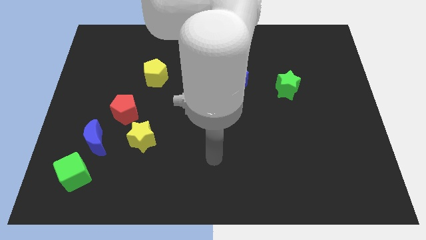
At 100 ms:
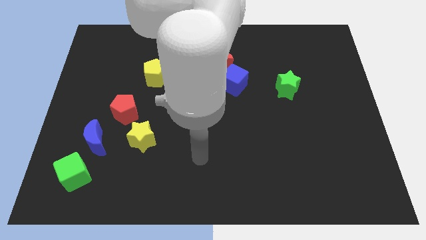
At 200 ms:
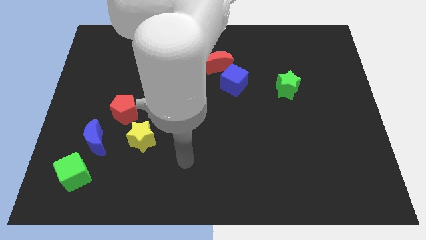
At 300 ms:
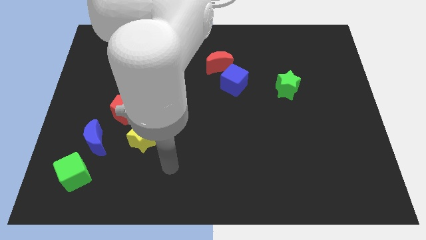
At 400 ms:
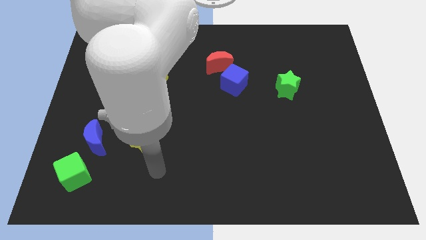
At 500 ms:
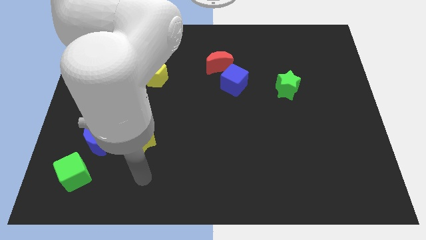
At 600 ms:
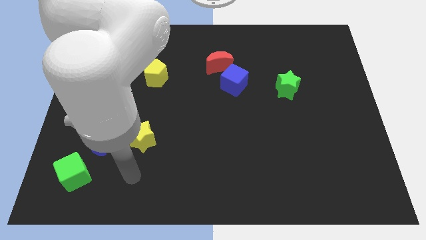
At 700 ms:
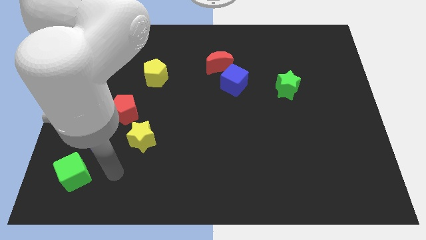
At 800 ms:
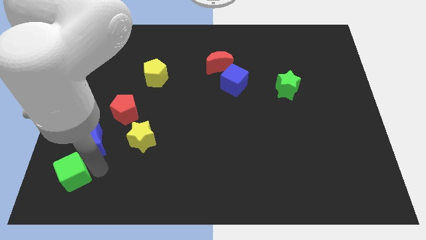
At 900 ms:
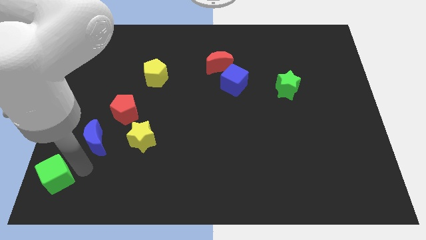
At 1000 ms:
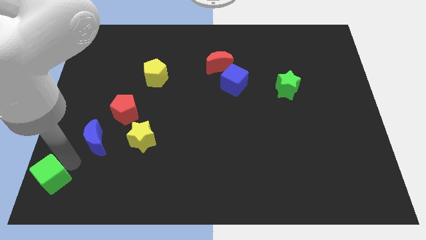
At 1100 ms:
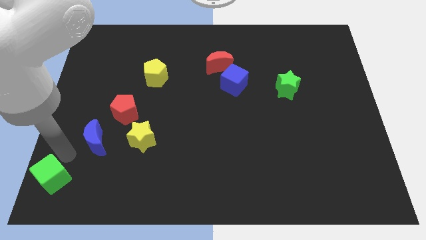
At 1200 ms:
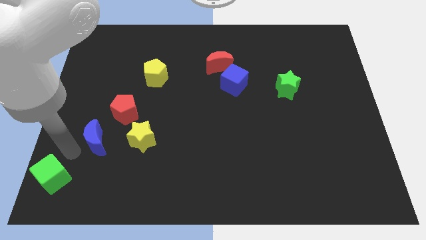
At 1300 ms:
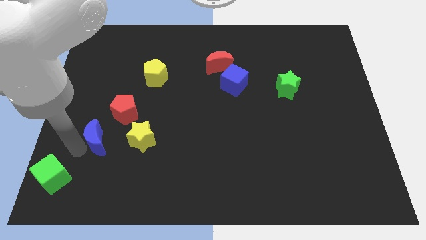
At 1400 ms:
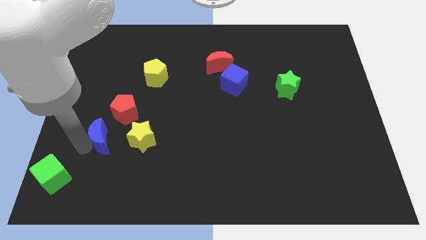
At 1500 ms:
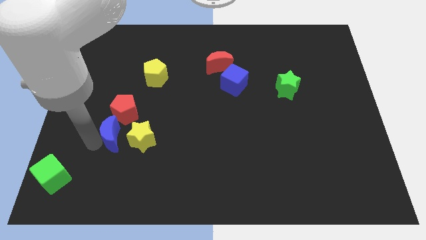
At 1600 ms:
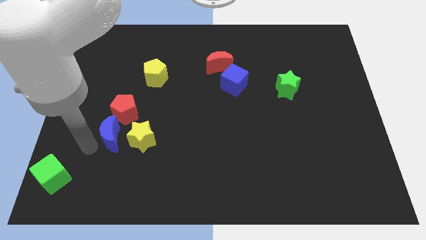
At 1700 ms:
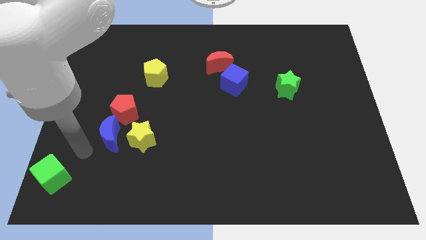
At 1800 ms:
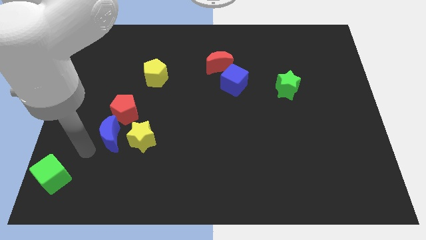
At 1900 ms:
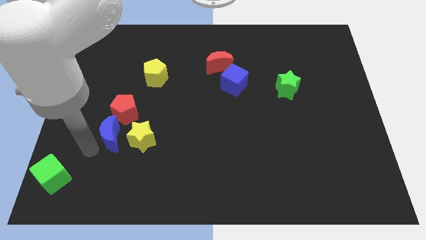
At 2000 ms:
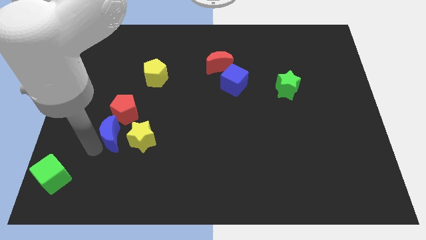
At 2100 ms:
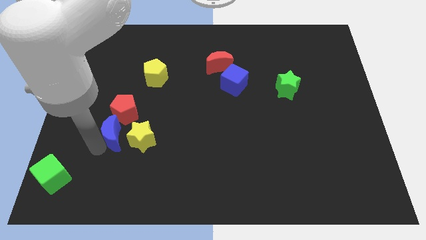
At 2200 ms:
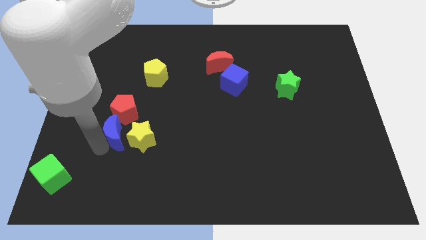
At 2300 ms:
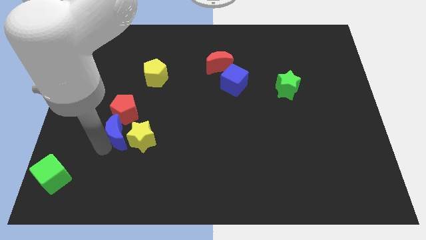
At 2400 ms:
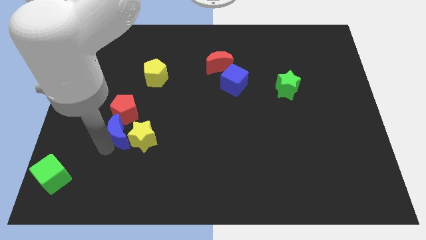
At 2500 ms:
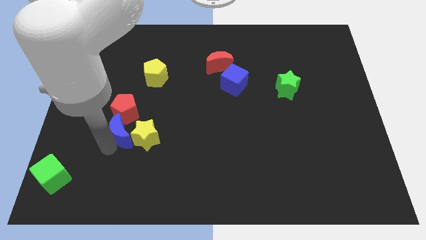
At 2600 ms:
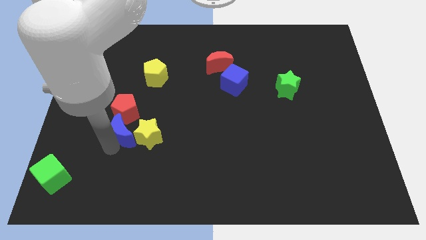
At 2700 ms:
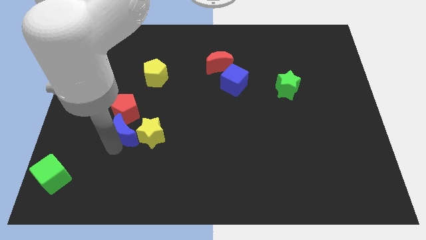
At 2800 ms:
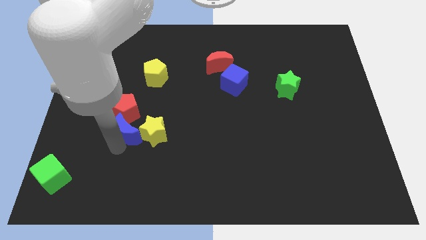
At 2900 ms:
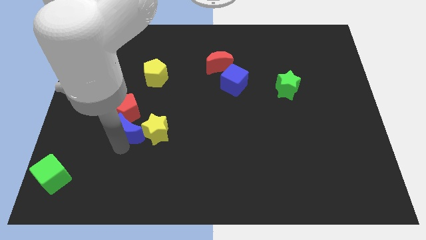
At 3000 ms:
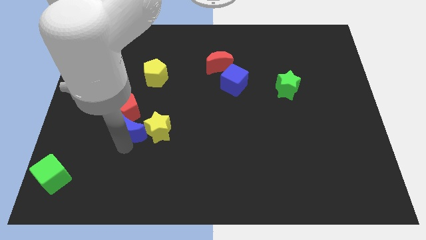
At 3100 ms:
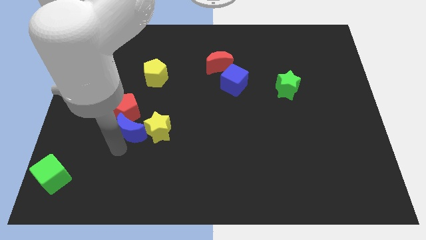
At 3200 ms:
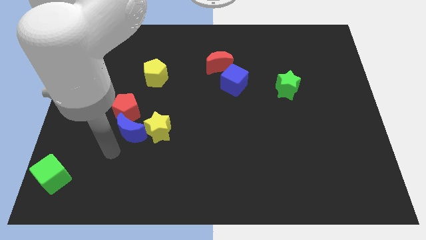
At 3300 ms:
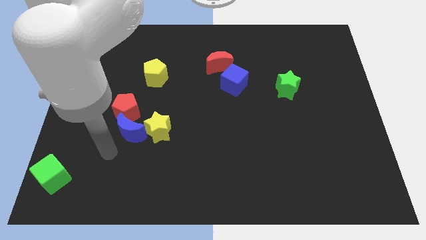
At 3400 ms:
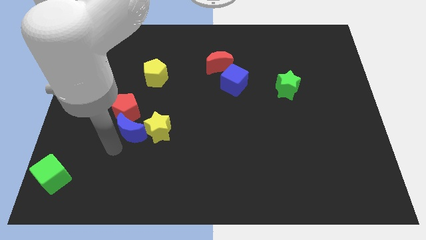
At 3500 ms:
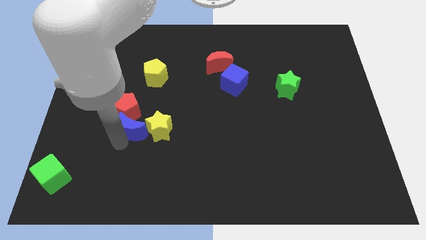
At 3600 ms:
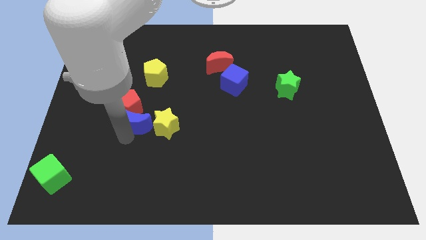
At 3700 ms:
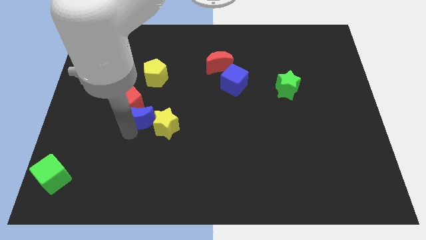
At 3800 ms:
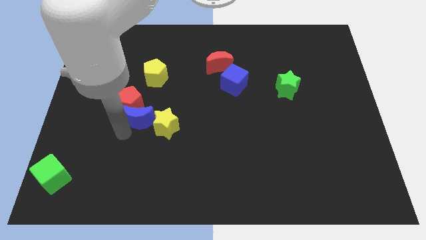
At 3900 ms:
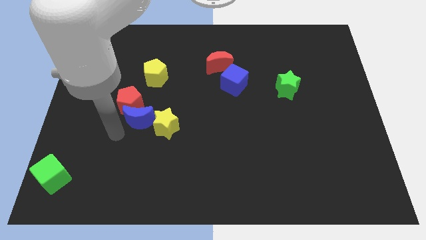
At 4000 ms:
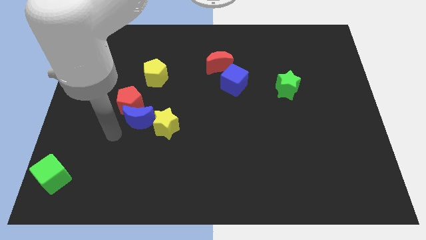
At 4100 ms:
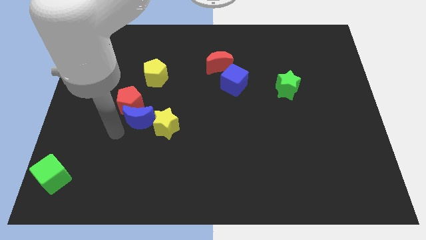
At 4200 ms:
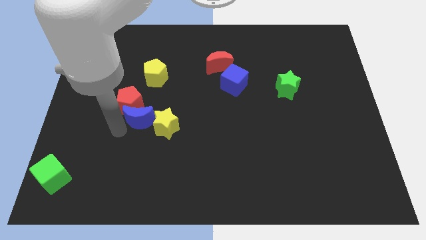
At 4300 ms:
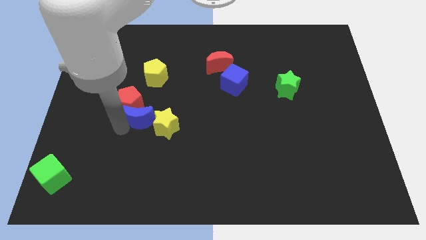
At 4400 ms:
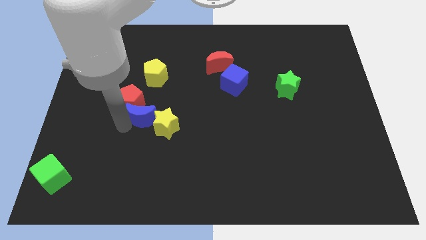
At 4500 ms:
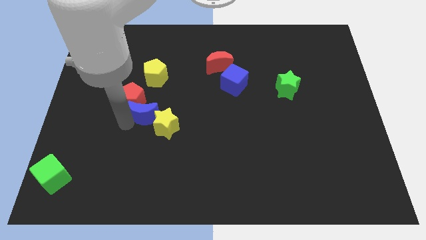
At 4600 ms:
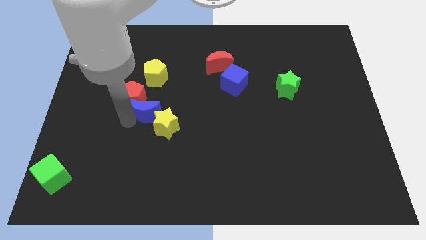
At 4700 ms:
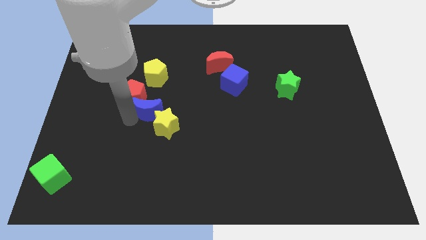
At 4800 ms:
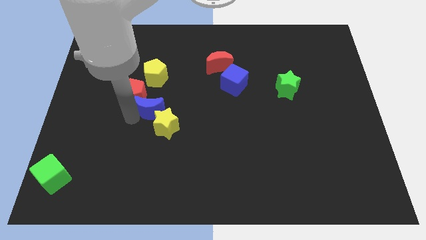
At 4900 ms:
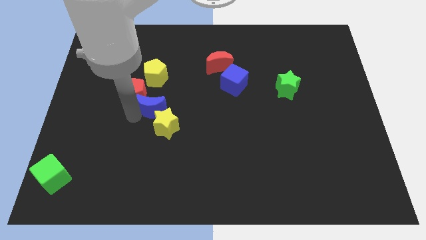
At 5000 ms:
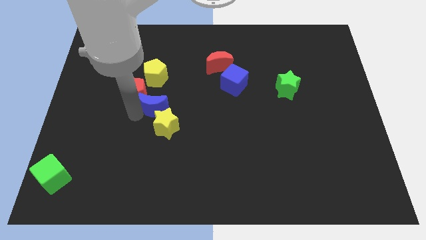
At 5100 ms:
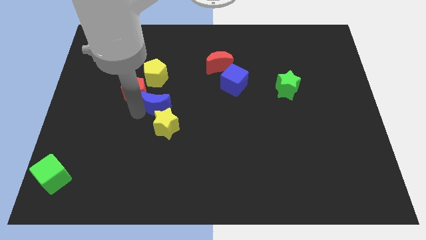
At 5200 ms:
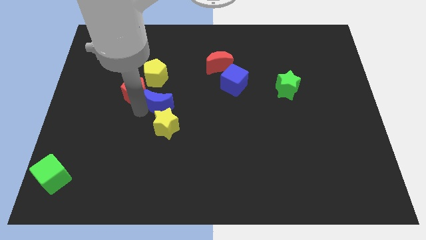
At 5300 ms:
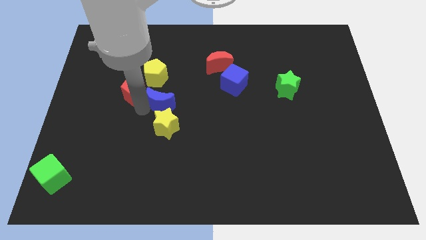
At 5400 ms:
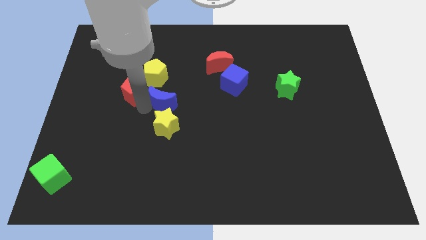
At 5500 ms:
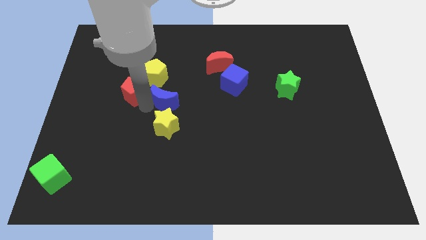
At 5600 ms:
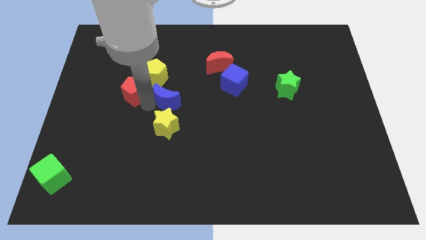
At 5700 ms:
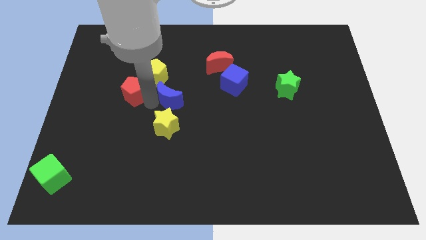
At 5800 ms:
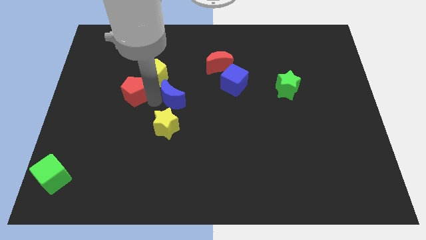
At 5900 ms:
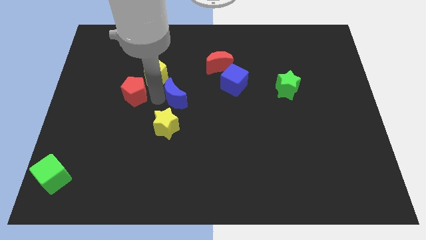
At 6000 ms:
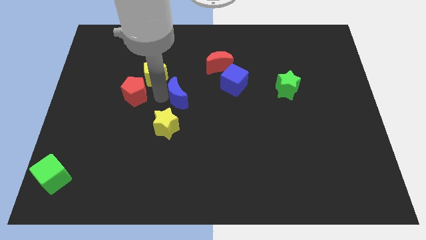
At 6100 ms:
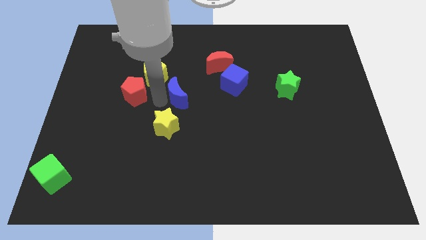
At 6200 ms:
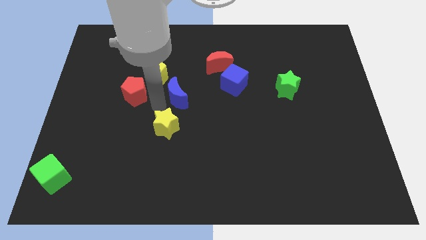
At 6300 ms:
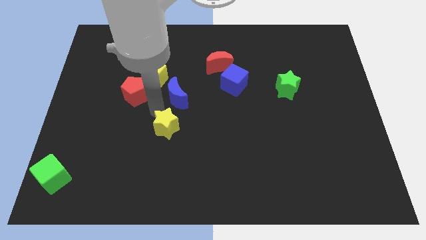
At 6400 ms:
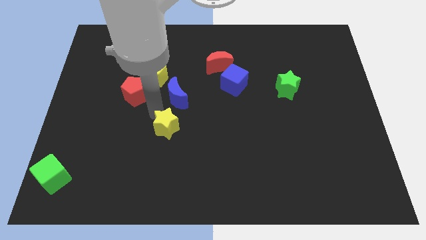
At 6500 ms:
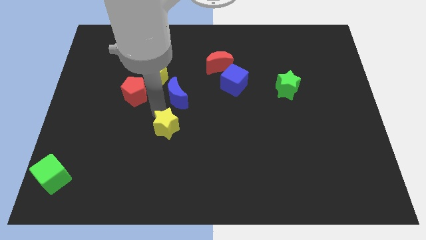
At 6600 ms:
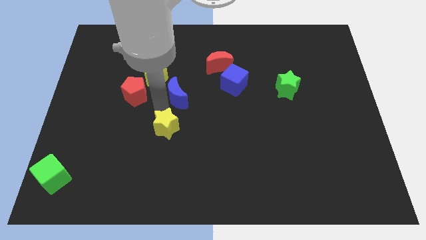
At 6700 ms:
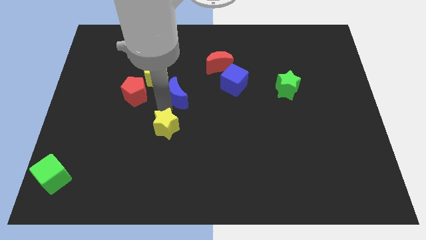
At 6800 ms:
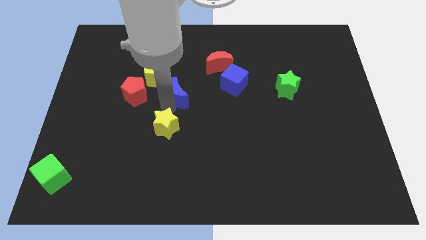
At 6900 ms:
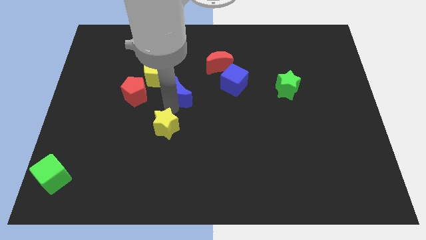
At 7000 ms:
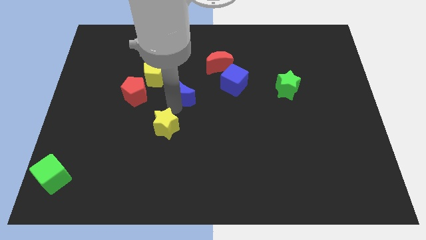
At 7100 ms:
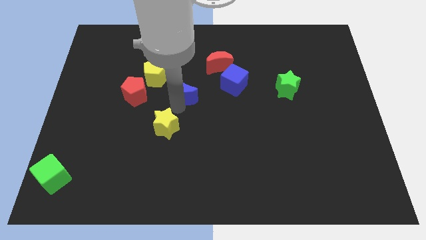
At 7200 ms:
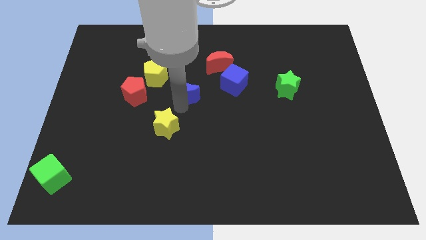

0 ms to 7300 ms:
slide the blue moon to the bottom left of the red moon

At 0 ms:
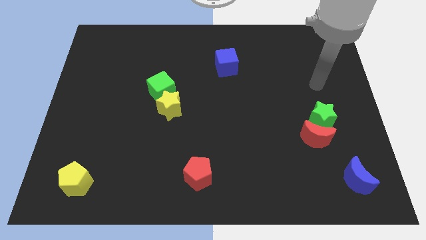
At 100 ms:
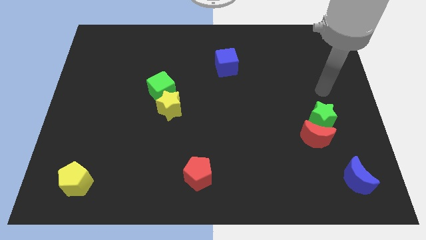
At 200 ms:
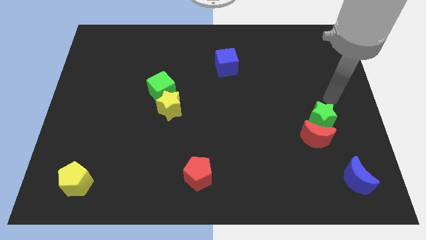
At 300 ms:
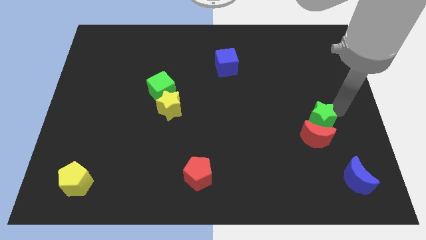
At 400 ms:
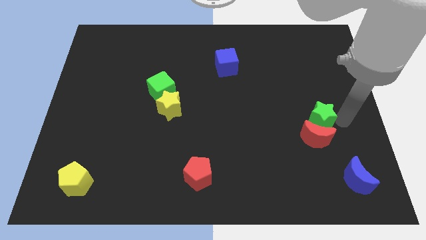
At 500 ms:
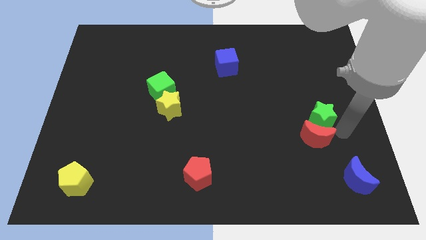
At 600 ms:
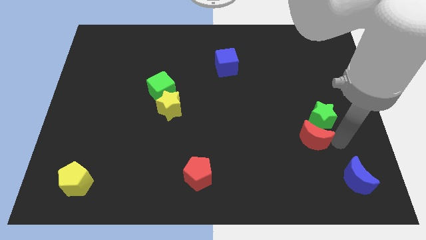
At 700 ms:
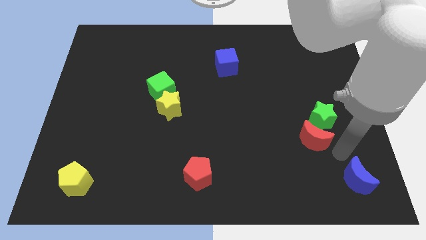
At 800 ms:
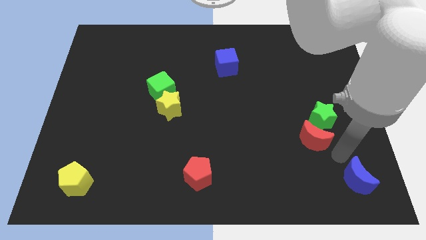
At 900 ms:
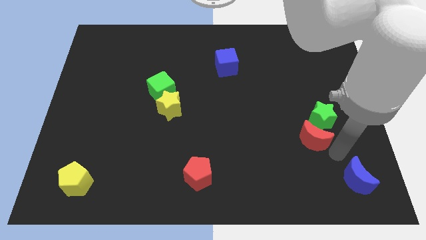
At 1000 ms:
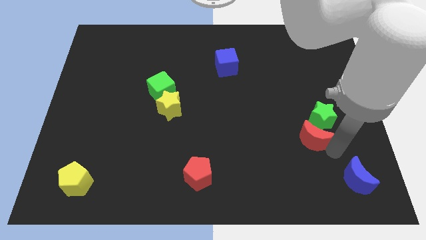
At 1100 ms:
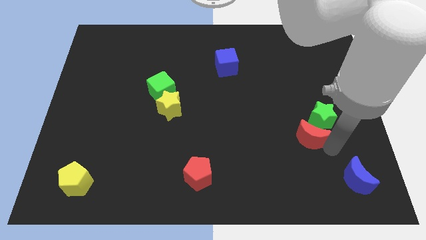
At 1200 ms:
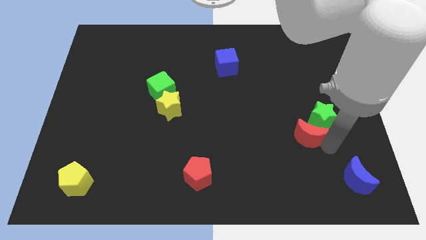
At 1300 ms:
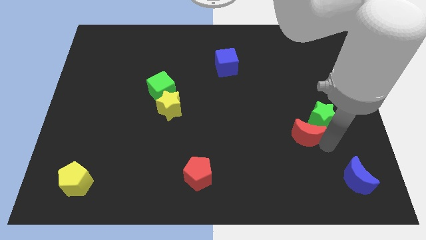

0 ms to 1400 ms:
slide the red moon to the left side of the green star
